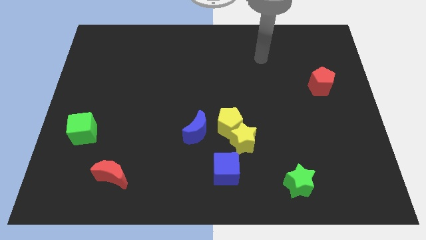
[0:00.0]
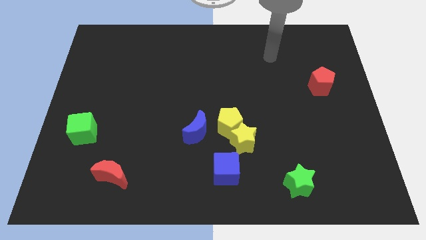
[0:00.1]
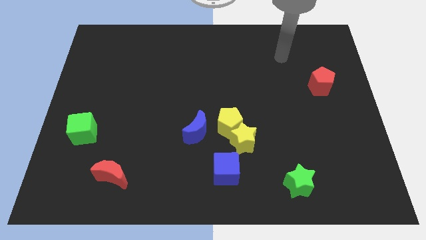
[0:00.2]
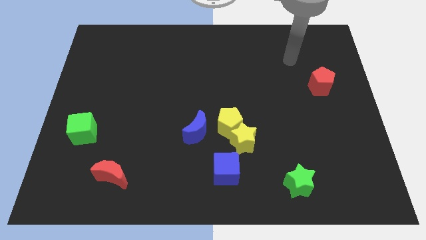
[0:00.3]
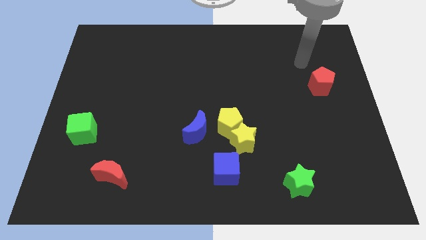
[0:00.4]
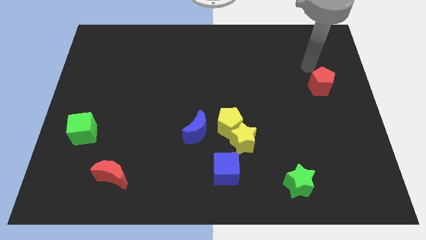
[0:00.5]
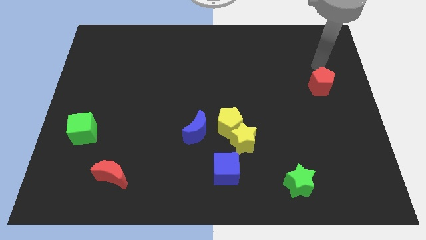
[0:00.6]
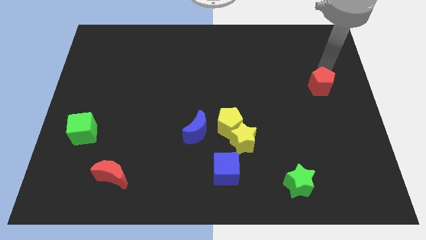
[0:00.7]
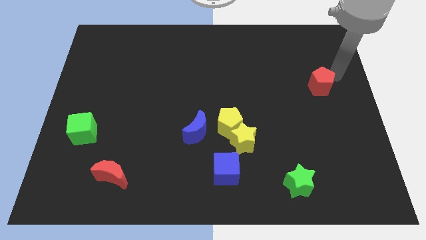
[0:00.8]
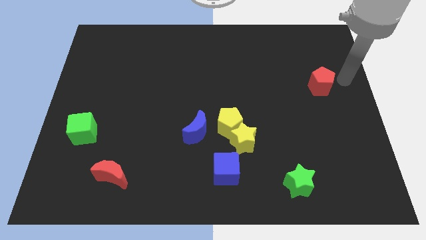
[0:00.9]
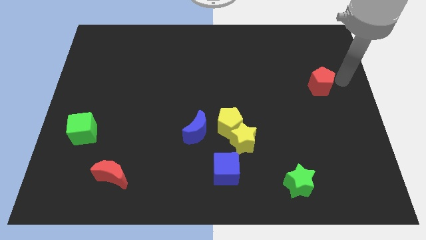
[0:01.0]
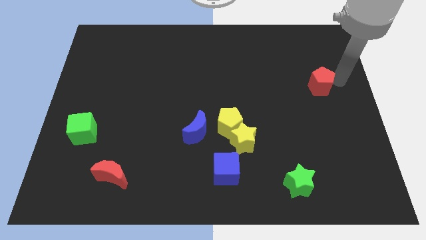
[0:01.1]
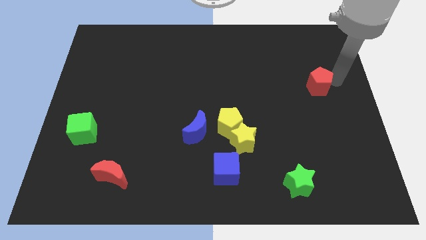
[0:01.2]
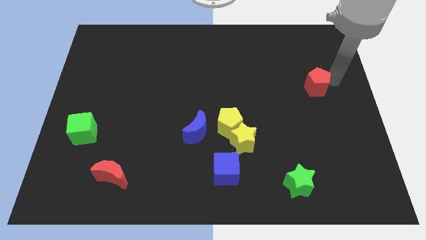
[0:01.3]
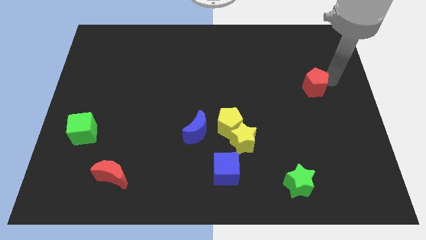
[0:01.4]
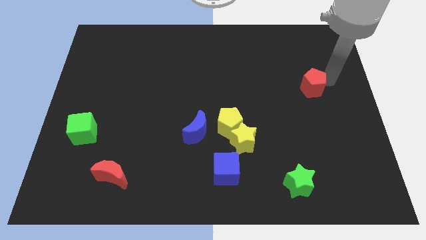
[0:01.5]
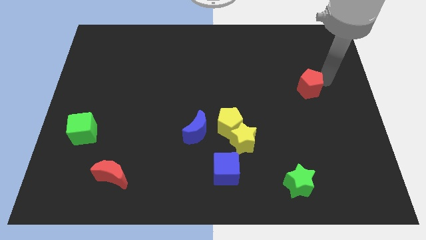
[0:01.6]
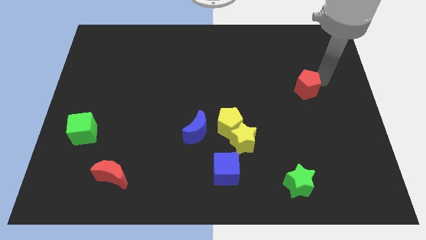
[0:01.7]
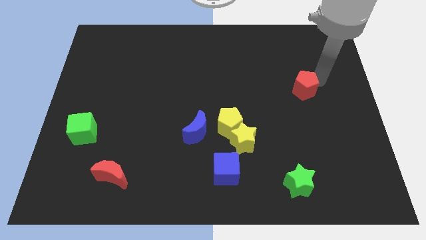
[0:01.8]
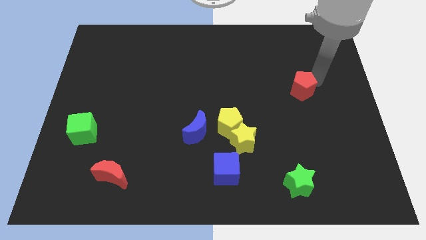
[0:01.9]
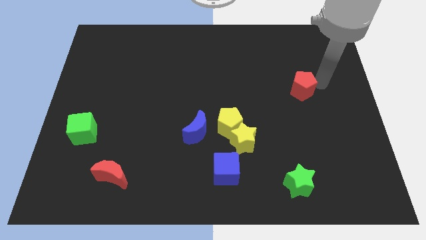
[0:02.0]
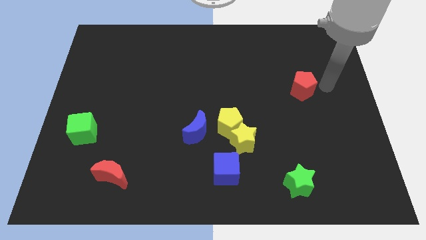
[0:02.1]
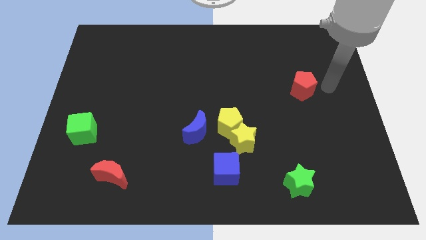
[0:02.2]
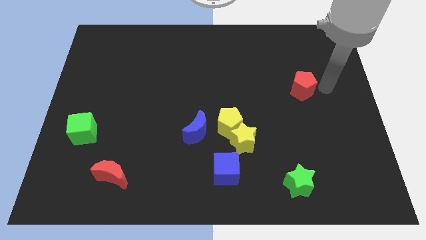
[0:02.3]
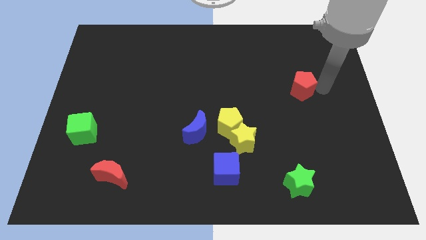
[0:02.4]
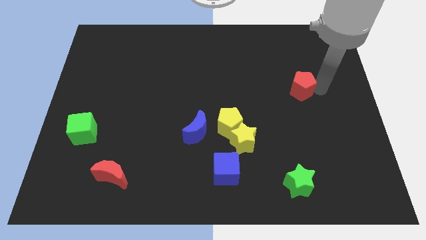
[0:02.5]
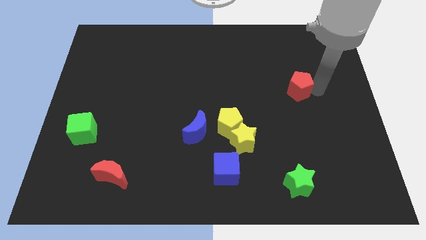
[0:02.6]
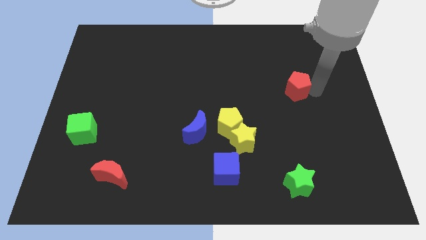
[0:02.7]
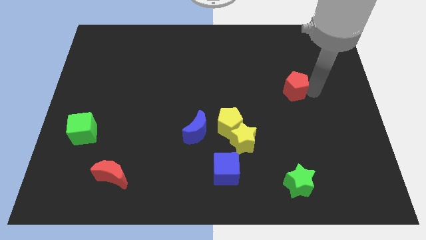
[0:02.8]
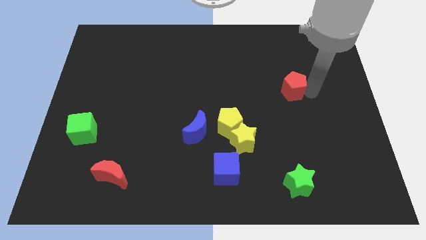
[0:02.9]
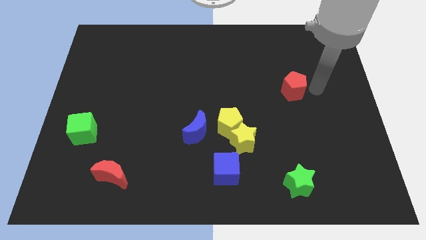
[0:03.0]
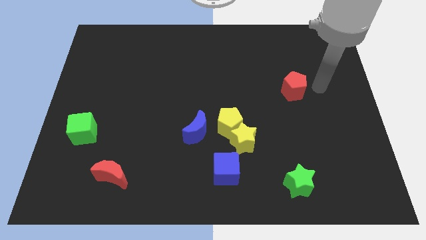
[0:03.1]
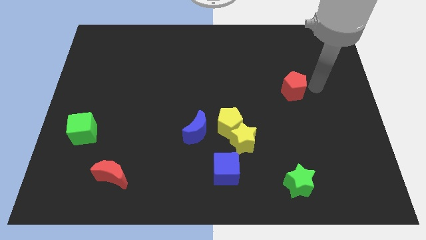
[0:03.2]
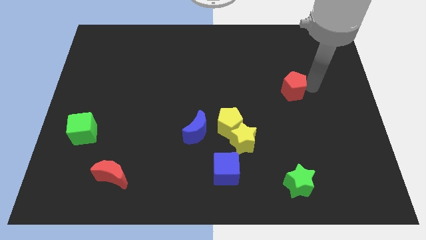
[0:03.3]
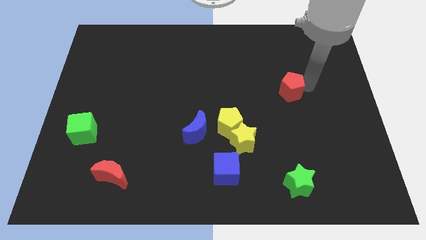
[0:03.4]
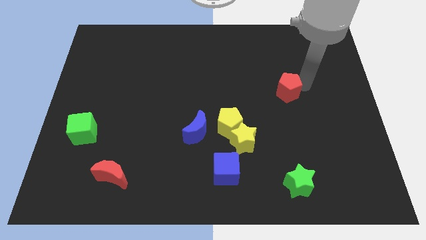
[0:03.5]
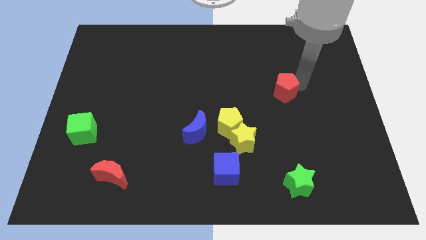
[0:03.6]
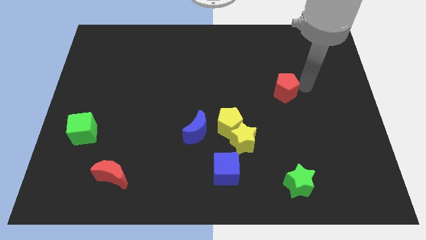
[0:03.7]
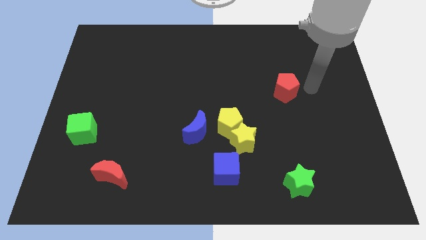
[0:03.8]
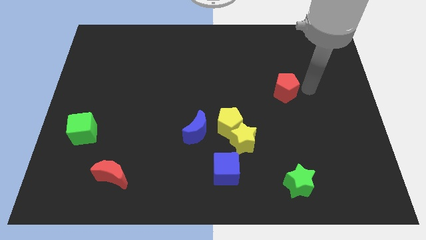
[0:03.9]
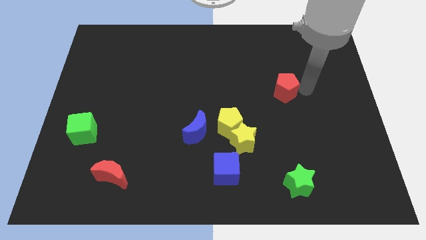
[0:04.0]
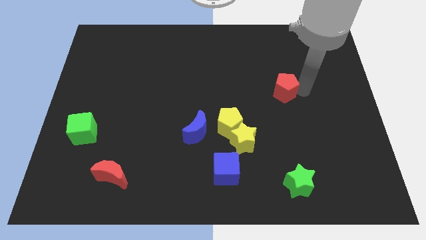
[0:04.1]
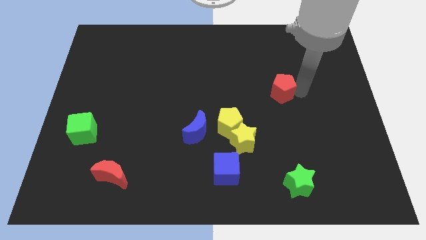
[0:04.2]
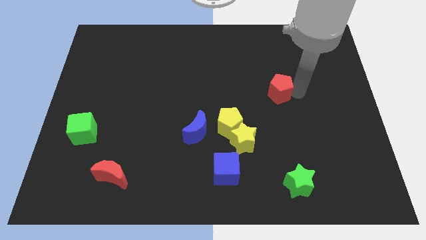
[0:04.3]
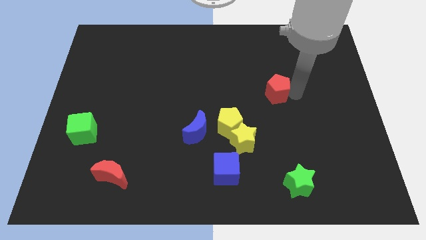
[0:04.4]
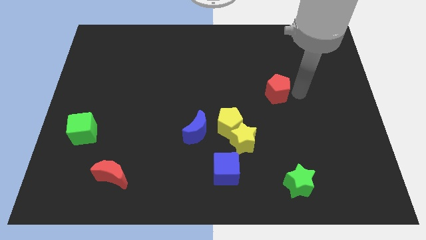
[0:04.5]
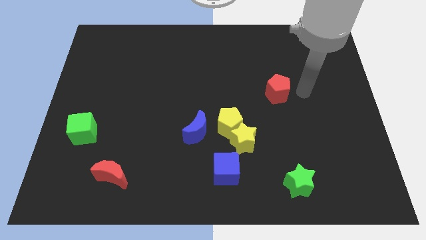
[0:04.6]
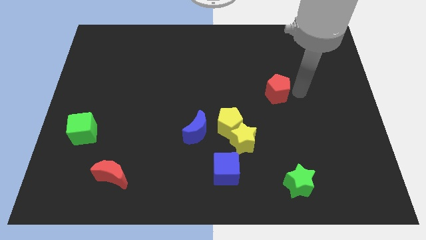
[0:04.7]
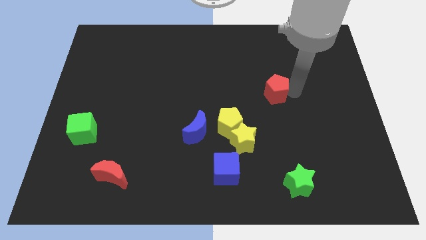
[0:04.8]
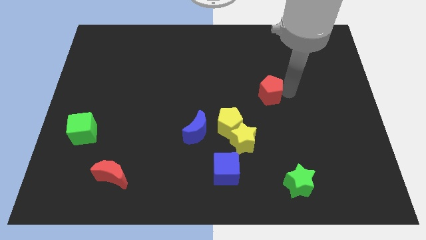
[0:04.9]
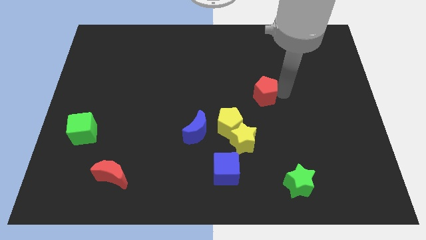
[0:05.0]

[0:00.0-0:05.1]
push the red pentagon to the middle of the board
